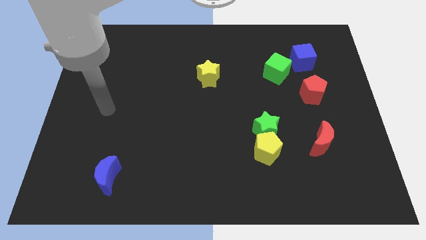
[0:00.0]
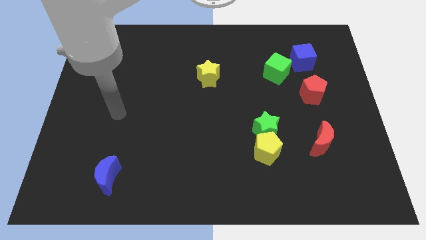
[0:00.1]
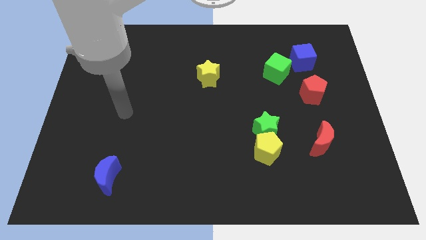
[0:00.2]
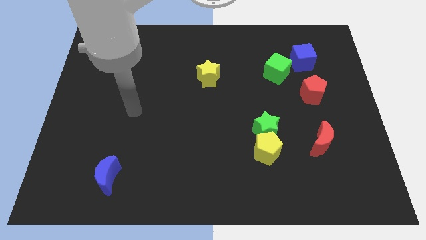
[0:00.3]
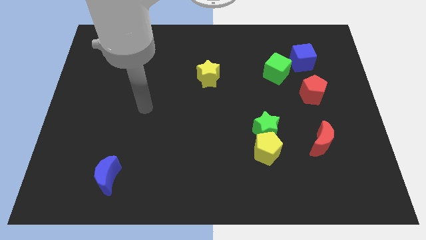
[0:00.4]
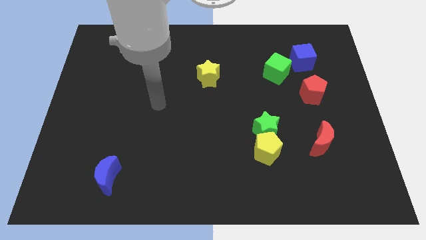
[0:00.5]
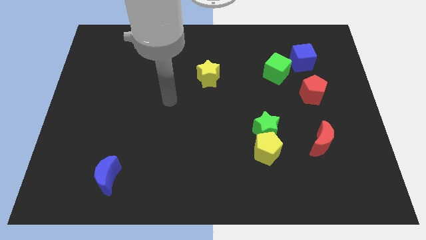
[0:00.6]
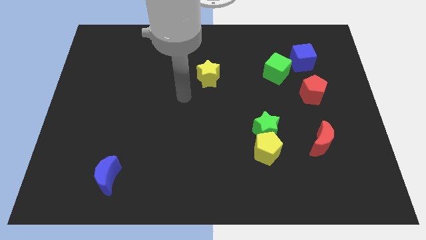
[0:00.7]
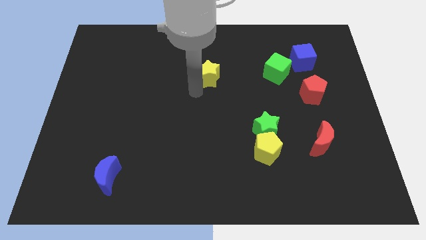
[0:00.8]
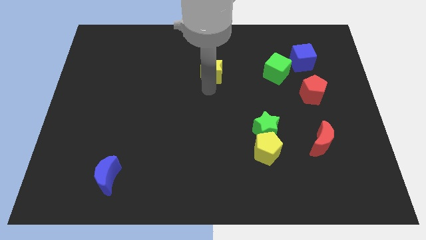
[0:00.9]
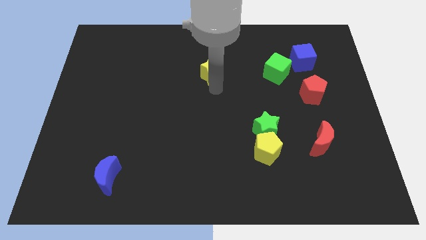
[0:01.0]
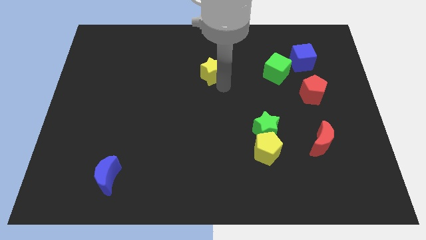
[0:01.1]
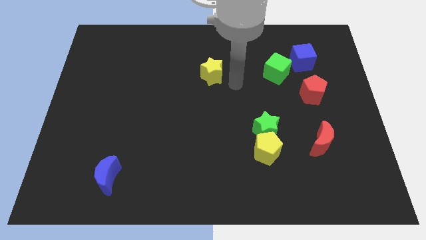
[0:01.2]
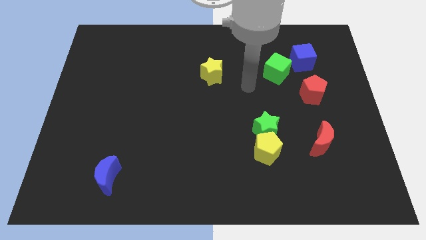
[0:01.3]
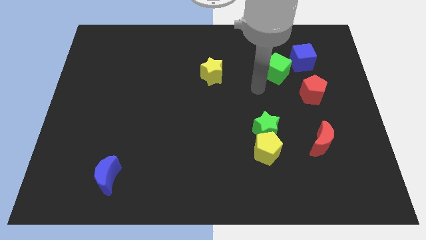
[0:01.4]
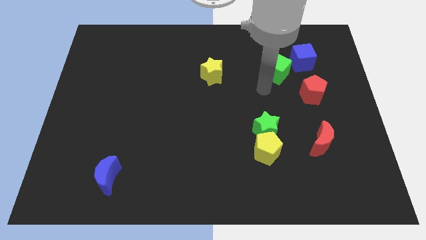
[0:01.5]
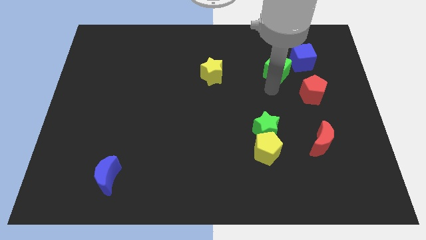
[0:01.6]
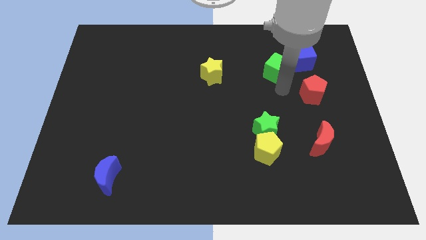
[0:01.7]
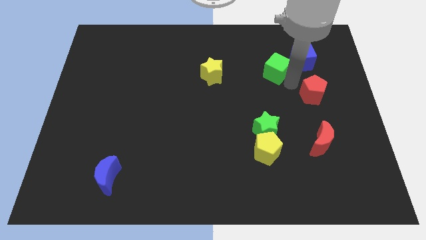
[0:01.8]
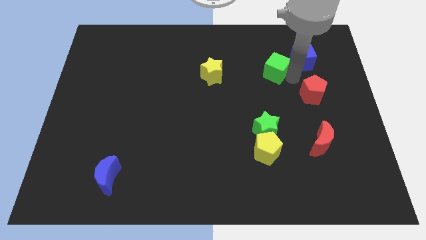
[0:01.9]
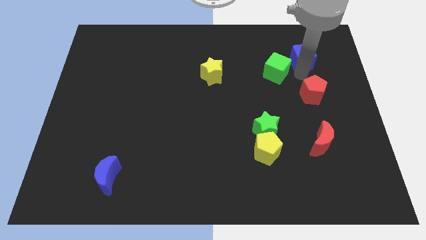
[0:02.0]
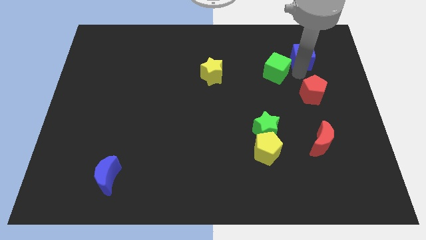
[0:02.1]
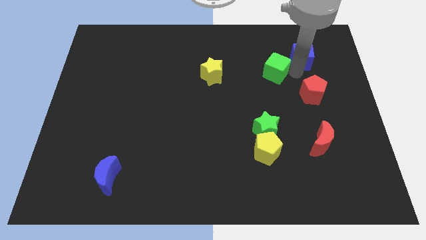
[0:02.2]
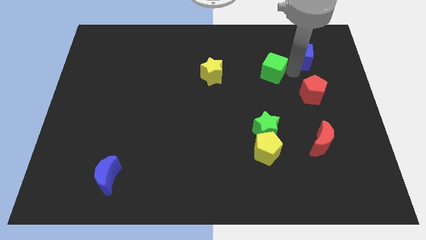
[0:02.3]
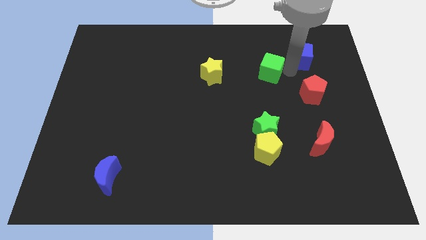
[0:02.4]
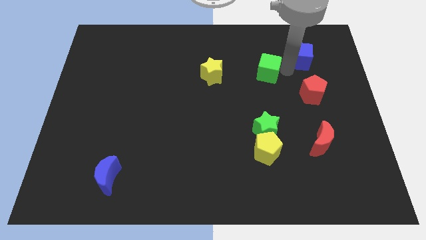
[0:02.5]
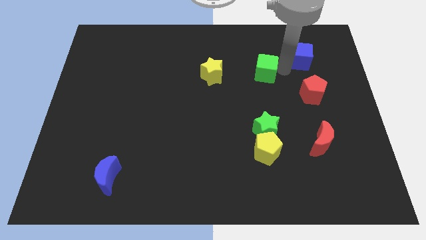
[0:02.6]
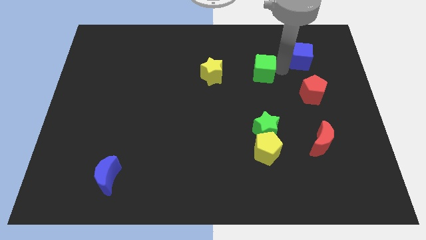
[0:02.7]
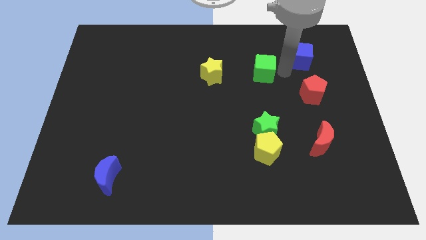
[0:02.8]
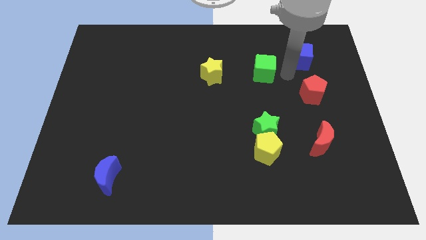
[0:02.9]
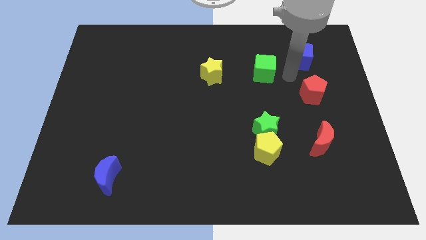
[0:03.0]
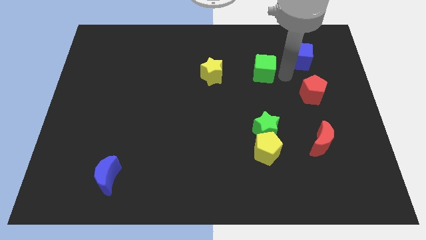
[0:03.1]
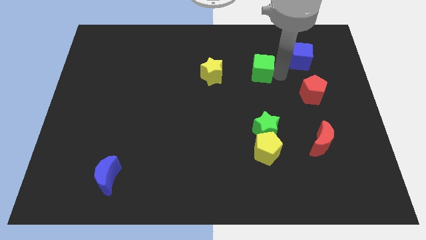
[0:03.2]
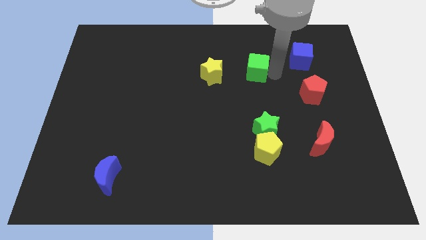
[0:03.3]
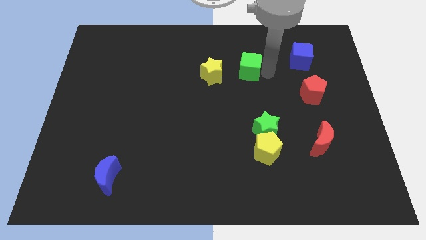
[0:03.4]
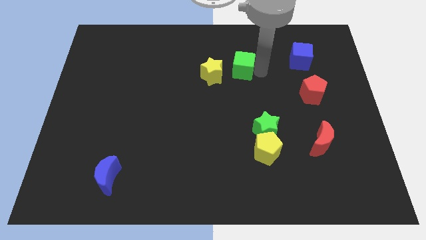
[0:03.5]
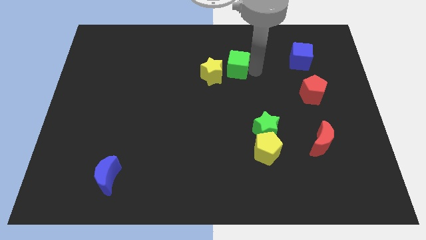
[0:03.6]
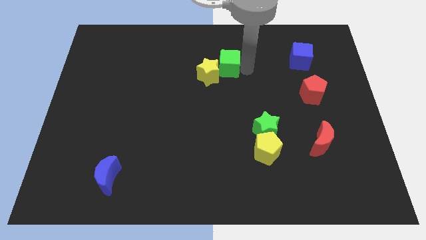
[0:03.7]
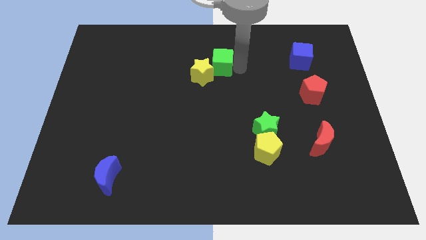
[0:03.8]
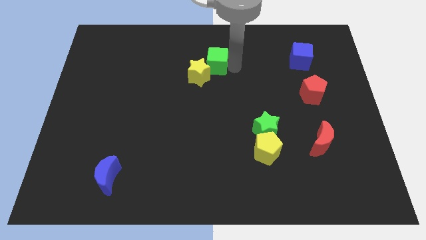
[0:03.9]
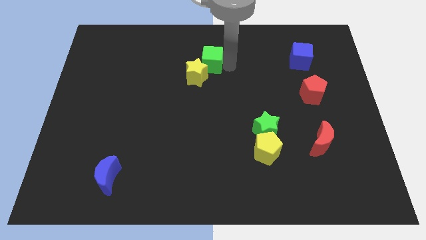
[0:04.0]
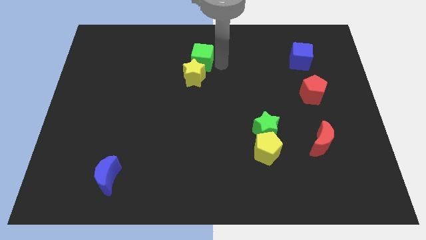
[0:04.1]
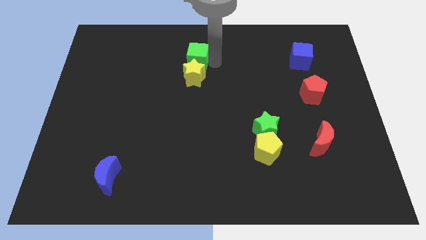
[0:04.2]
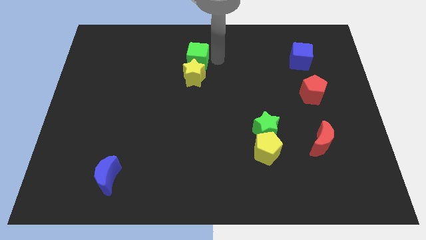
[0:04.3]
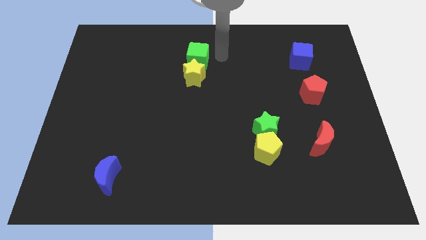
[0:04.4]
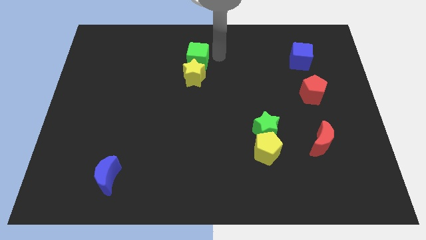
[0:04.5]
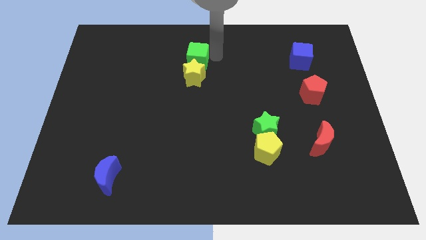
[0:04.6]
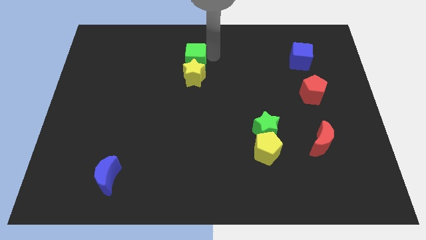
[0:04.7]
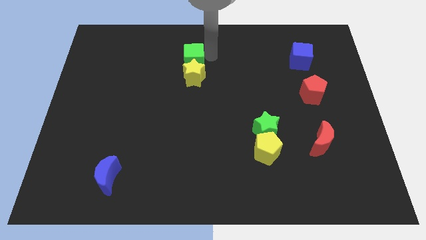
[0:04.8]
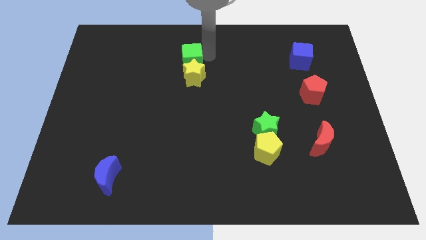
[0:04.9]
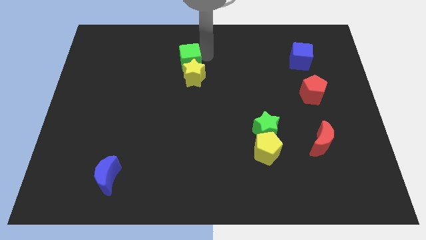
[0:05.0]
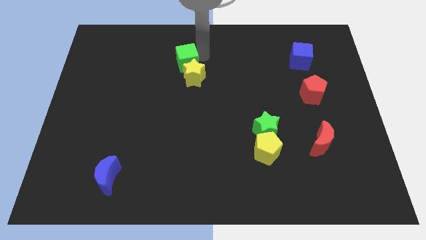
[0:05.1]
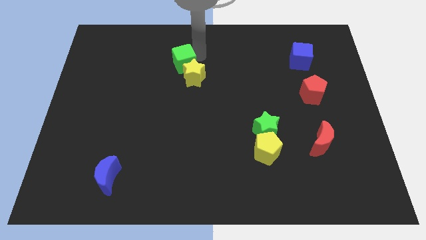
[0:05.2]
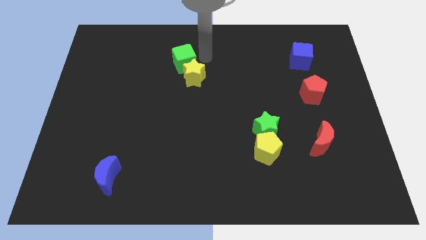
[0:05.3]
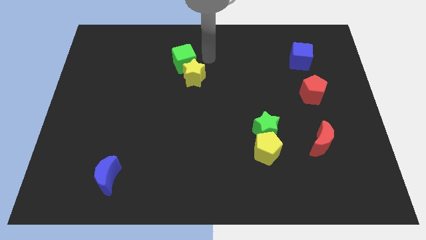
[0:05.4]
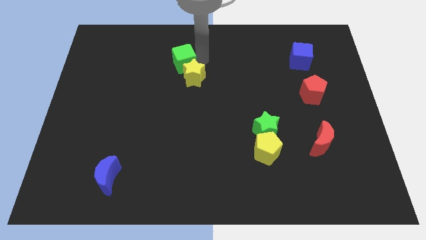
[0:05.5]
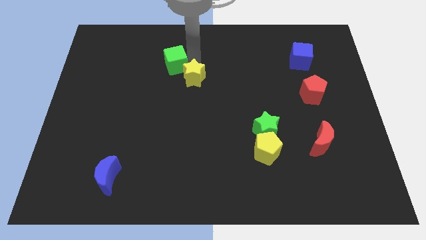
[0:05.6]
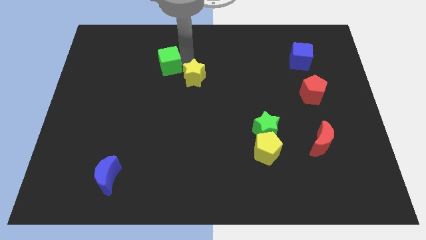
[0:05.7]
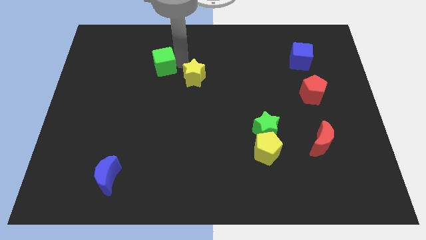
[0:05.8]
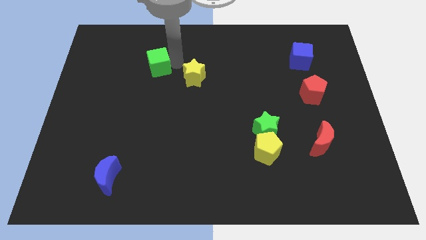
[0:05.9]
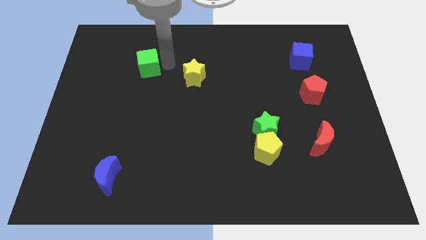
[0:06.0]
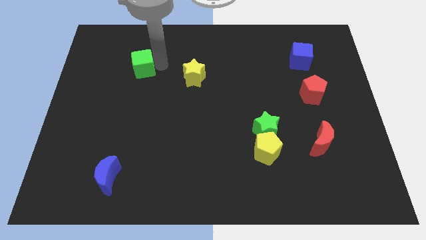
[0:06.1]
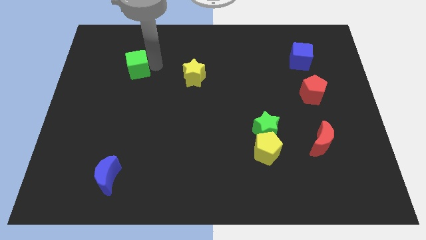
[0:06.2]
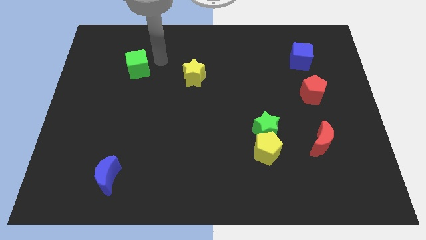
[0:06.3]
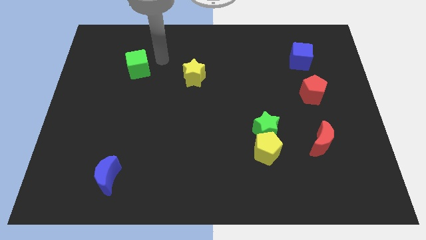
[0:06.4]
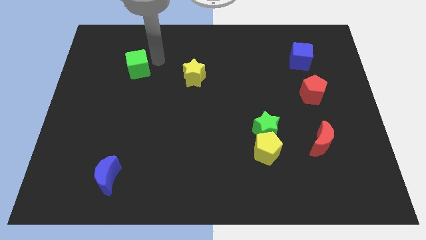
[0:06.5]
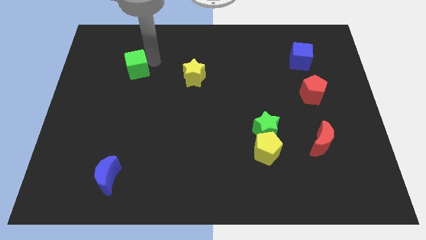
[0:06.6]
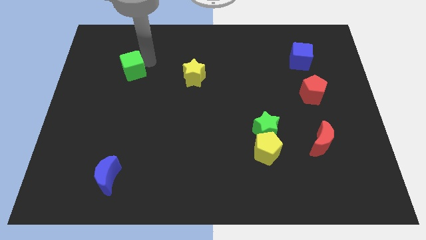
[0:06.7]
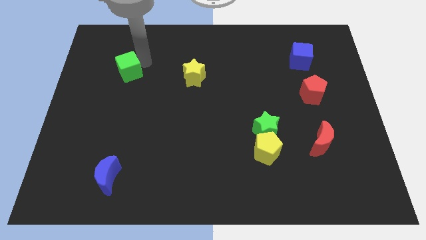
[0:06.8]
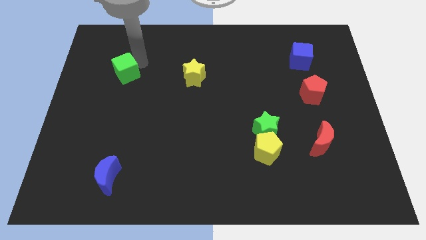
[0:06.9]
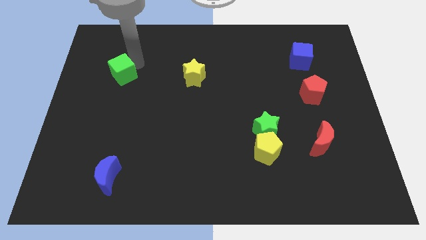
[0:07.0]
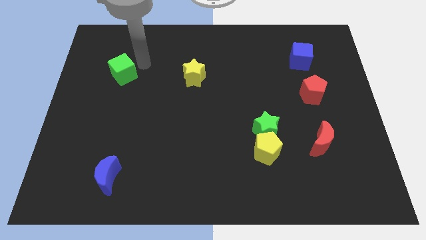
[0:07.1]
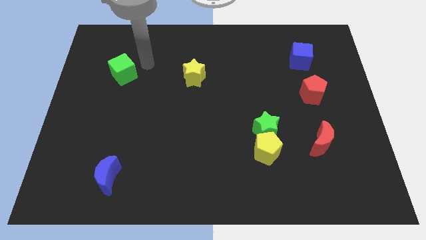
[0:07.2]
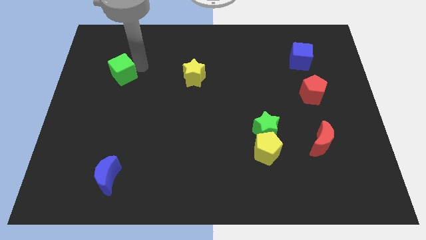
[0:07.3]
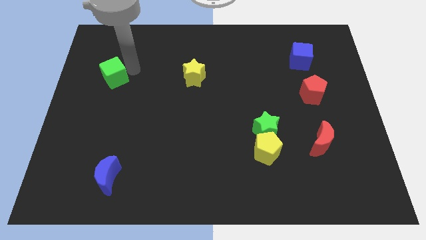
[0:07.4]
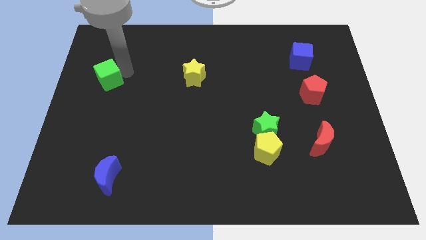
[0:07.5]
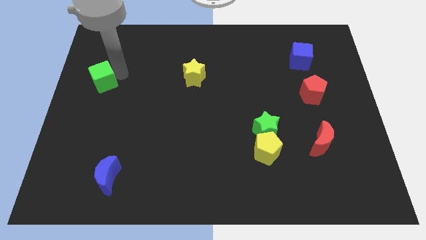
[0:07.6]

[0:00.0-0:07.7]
move the green cube to the left side
